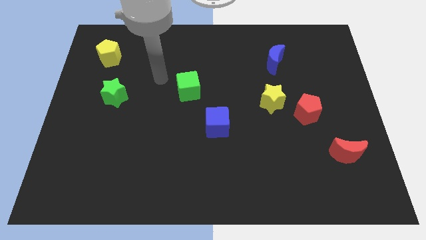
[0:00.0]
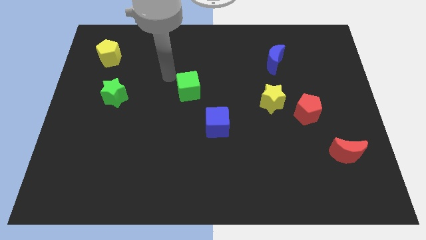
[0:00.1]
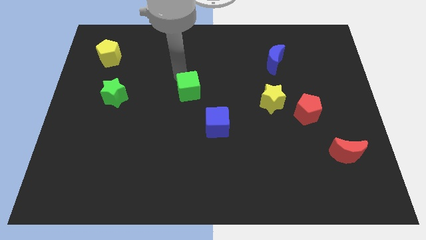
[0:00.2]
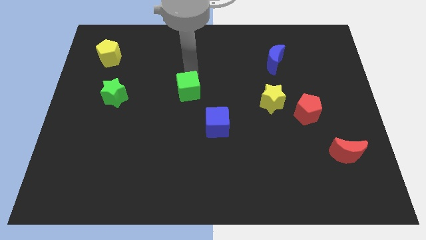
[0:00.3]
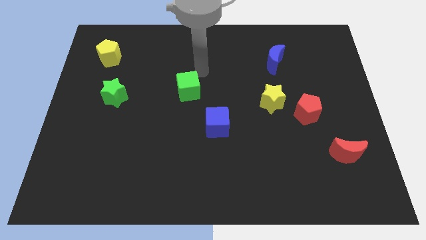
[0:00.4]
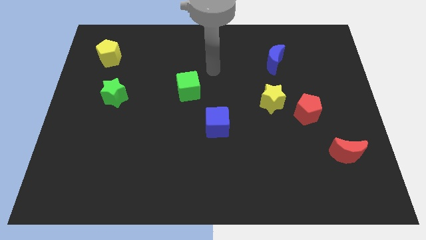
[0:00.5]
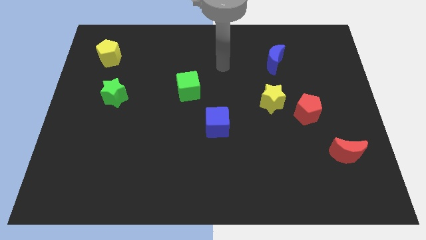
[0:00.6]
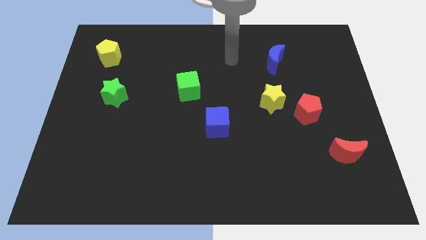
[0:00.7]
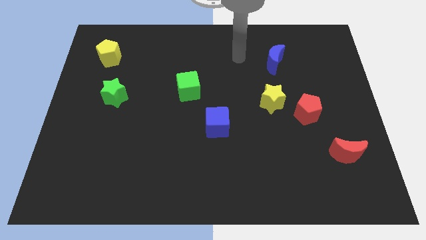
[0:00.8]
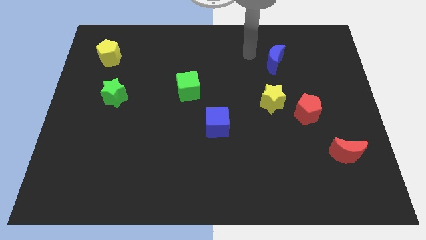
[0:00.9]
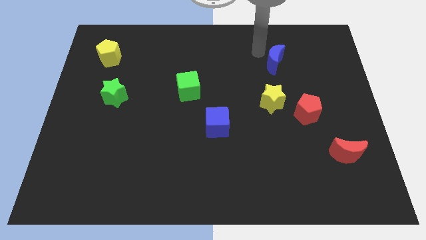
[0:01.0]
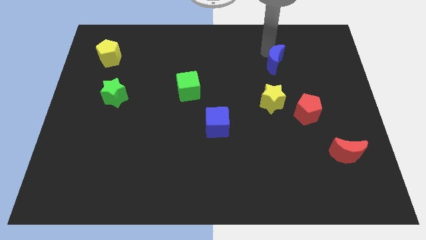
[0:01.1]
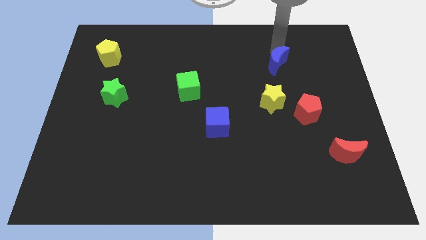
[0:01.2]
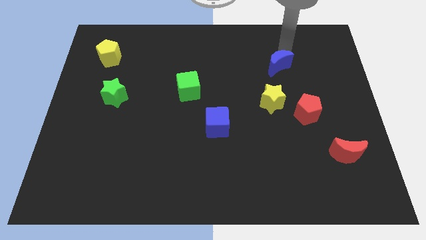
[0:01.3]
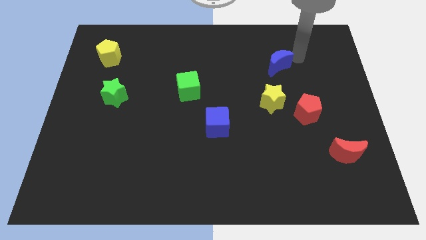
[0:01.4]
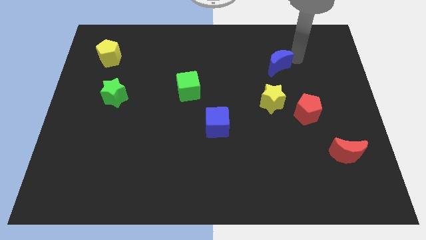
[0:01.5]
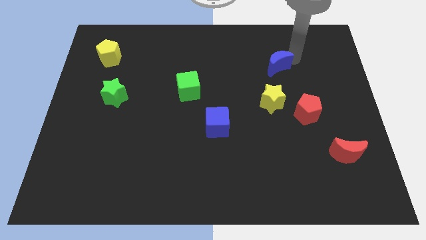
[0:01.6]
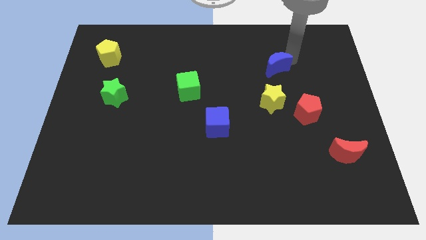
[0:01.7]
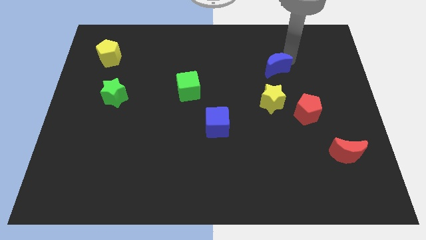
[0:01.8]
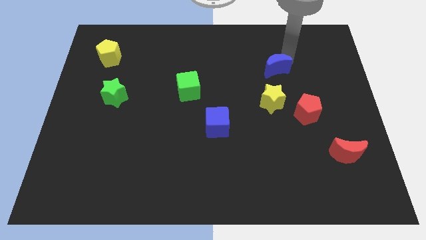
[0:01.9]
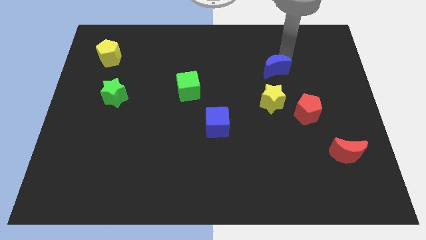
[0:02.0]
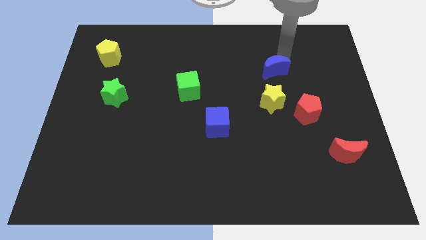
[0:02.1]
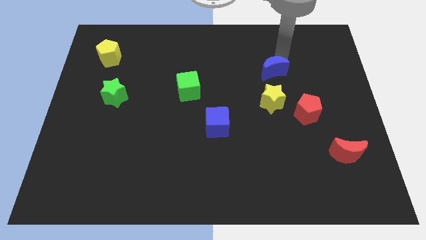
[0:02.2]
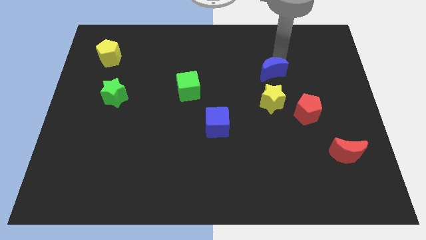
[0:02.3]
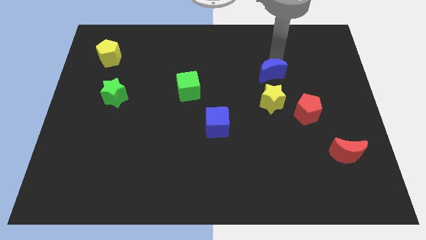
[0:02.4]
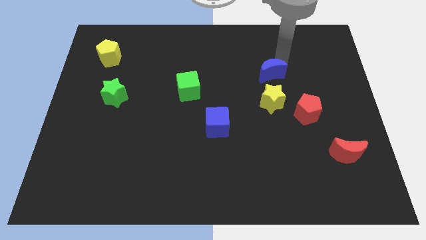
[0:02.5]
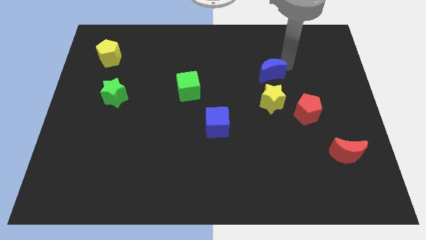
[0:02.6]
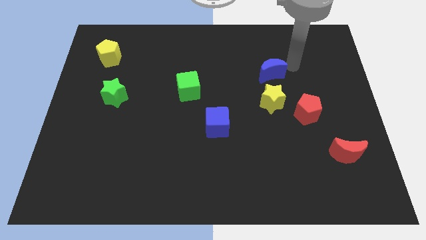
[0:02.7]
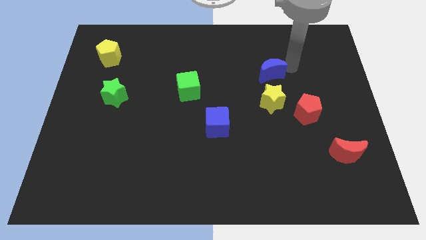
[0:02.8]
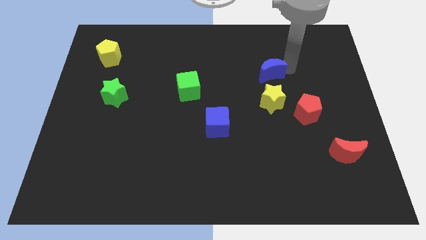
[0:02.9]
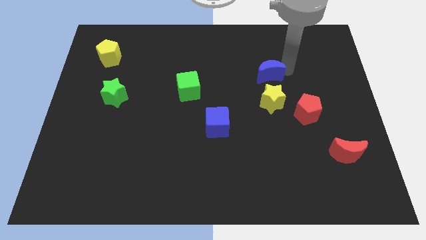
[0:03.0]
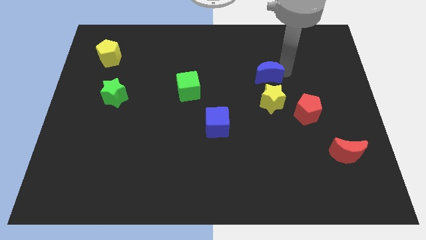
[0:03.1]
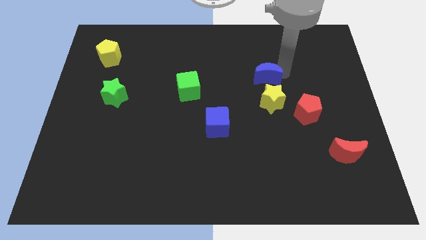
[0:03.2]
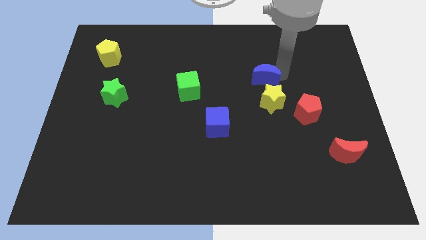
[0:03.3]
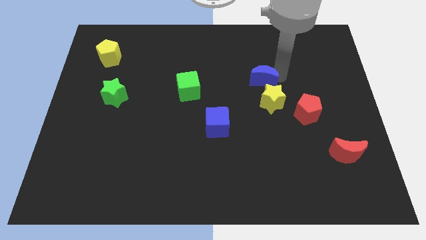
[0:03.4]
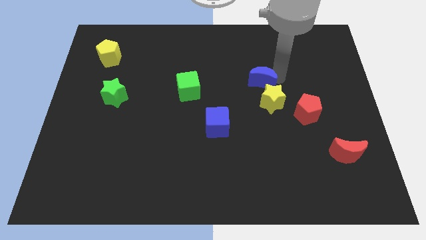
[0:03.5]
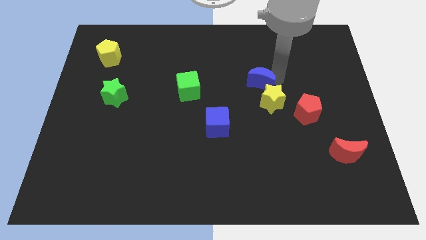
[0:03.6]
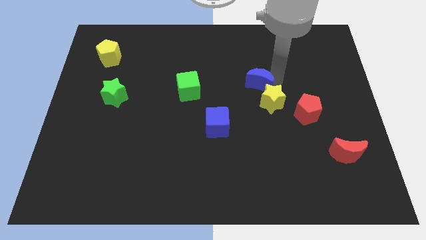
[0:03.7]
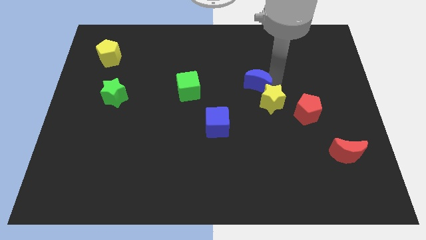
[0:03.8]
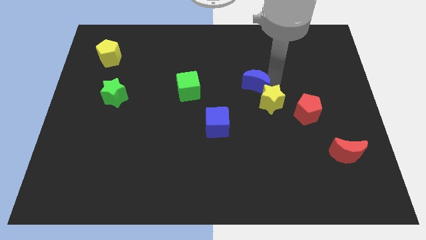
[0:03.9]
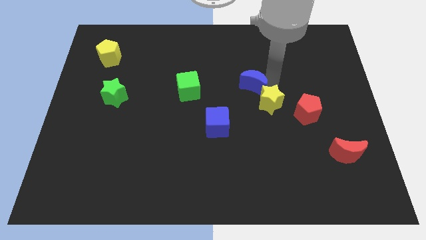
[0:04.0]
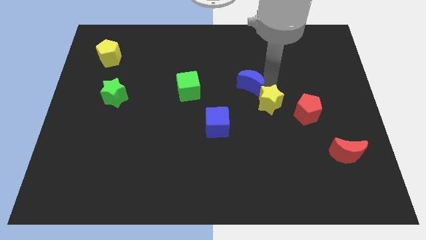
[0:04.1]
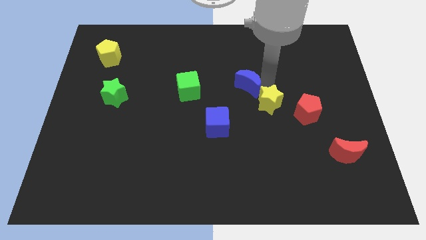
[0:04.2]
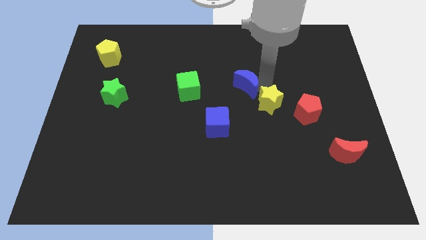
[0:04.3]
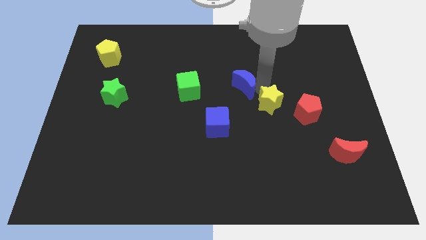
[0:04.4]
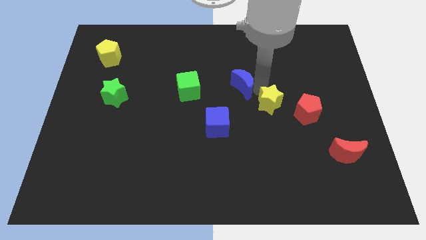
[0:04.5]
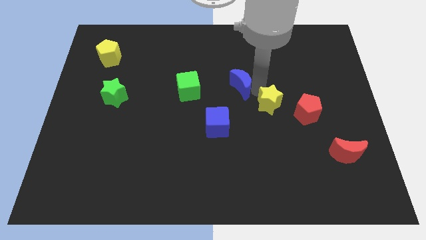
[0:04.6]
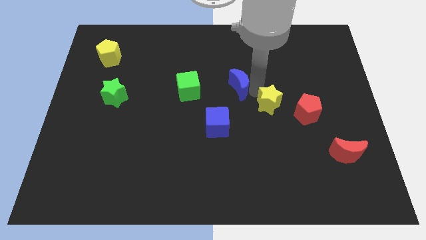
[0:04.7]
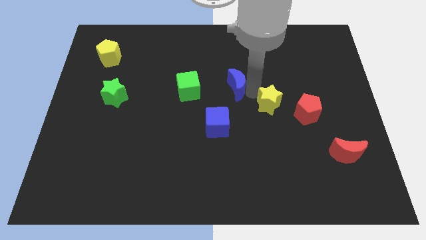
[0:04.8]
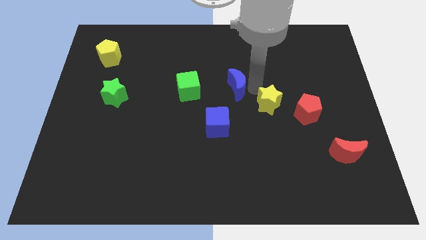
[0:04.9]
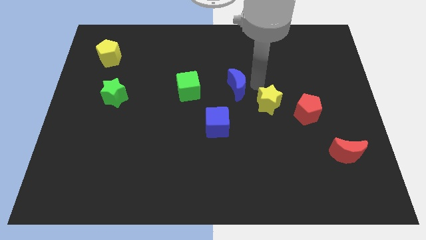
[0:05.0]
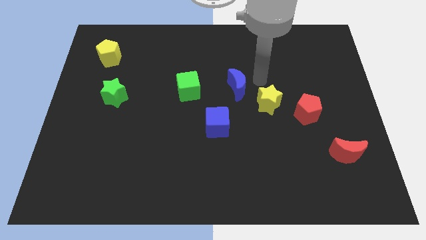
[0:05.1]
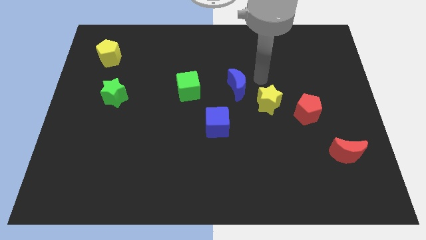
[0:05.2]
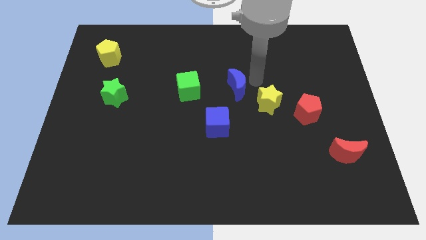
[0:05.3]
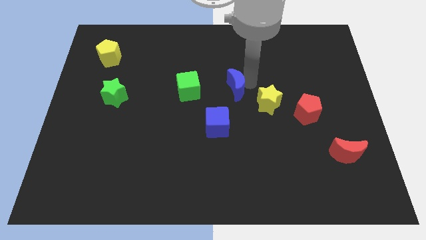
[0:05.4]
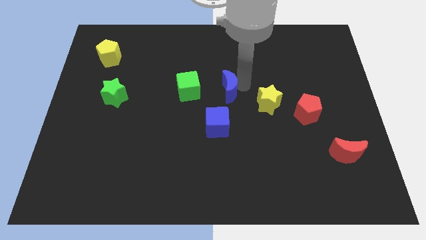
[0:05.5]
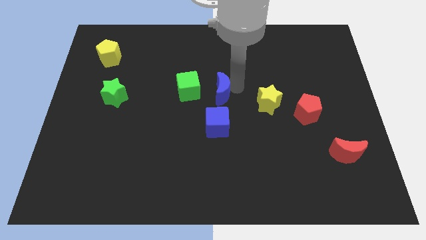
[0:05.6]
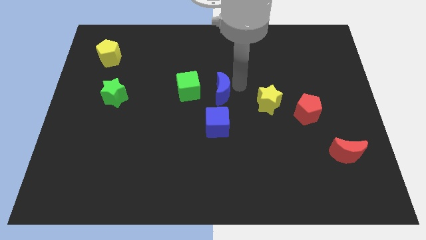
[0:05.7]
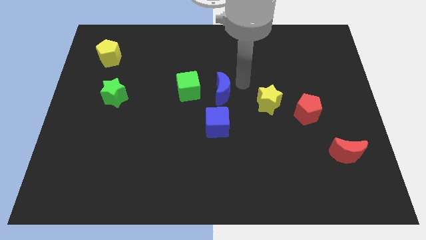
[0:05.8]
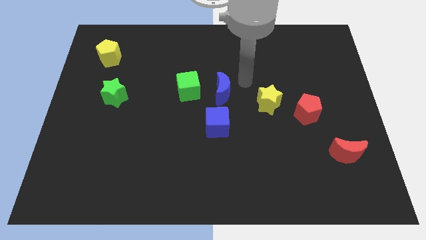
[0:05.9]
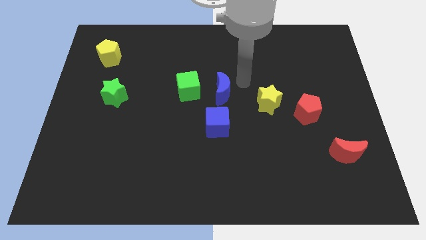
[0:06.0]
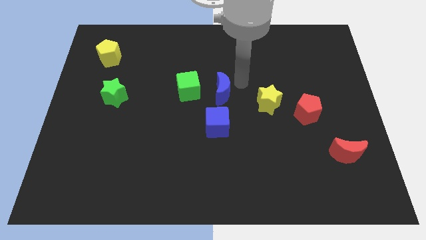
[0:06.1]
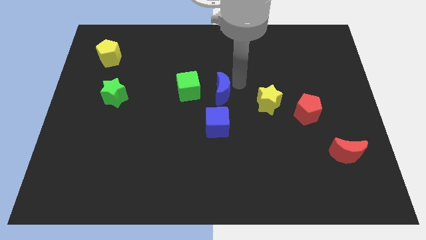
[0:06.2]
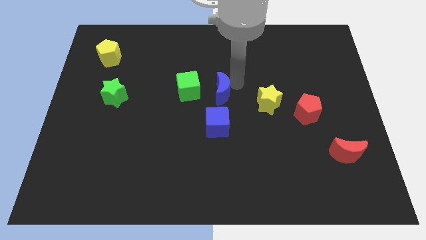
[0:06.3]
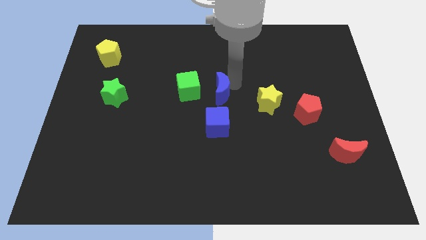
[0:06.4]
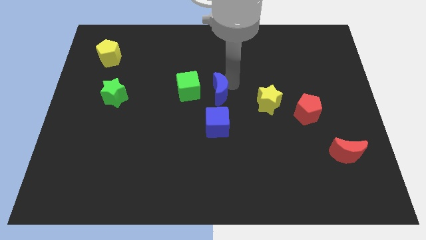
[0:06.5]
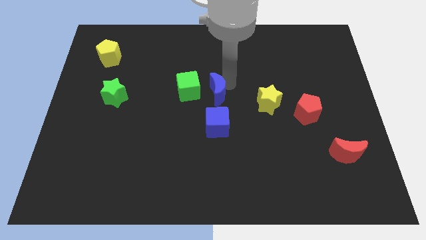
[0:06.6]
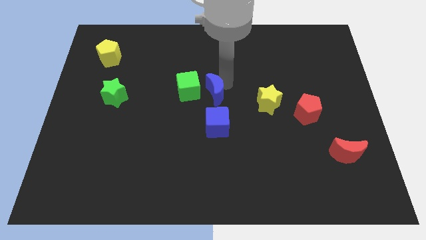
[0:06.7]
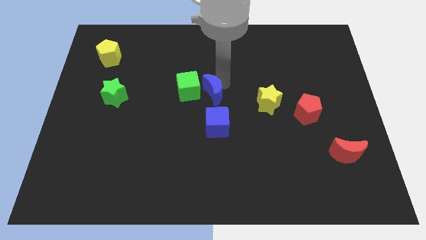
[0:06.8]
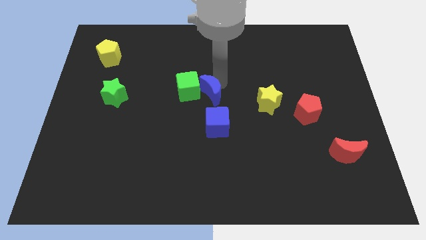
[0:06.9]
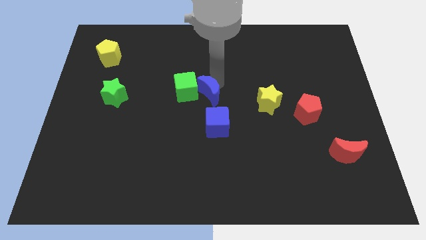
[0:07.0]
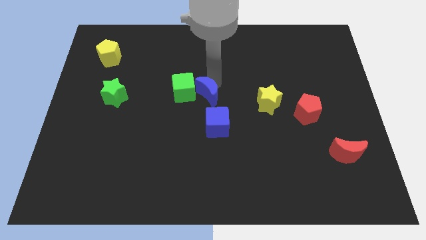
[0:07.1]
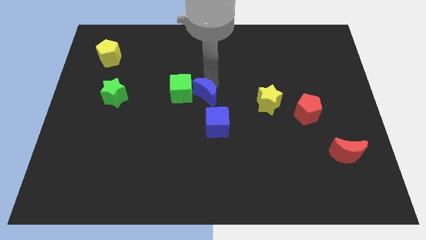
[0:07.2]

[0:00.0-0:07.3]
push the blue moon to the top left side of the blue cube
